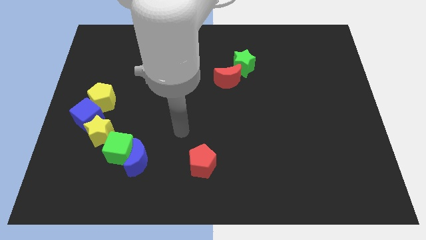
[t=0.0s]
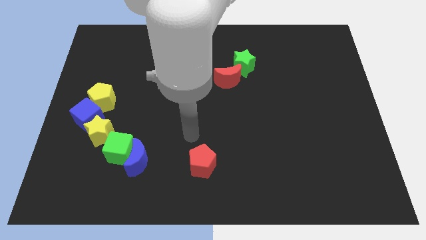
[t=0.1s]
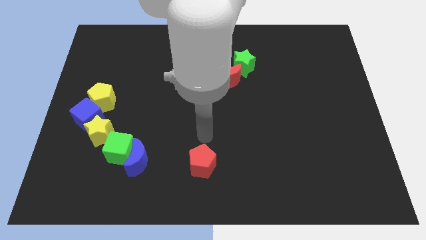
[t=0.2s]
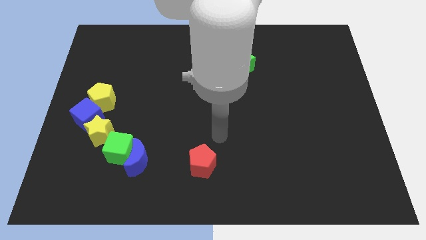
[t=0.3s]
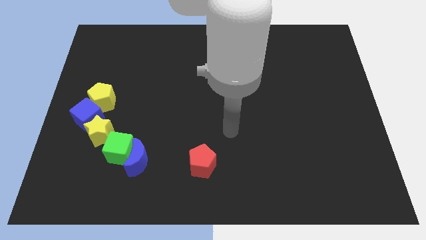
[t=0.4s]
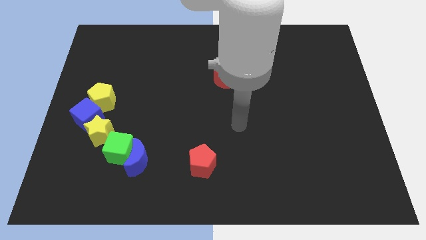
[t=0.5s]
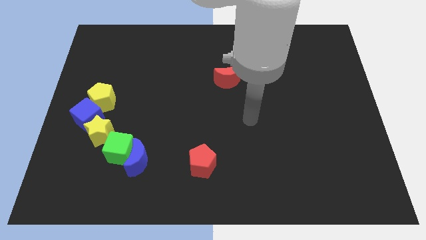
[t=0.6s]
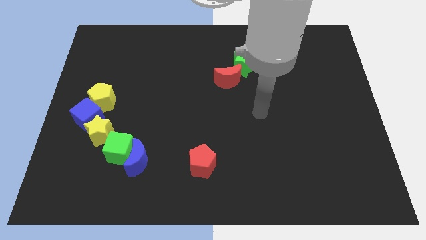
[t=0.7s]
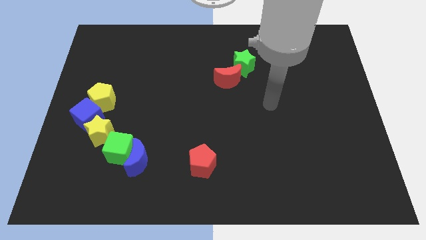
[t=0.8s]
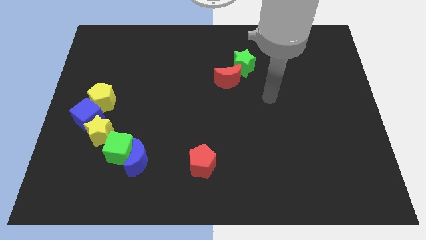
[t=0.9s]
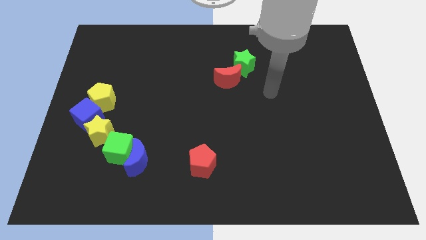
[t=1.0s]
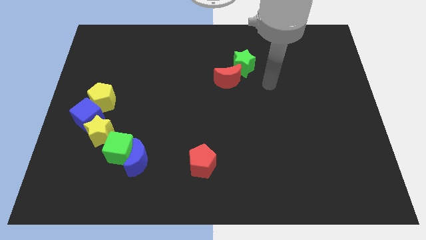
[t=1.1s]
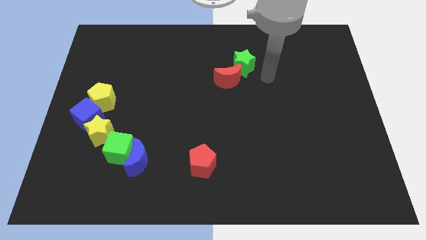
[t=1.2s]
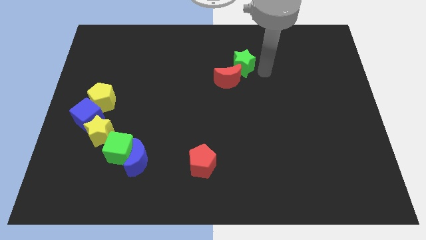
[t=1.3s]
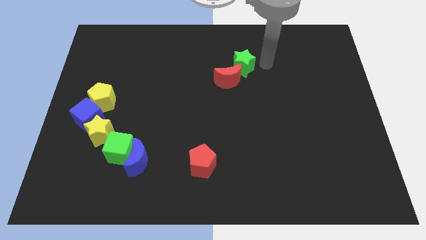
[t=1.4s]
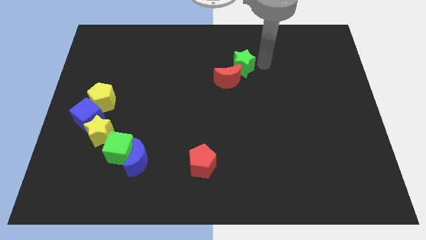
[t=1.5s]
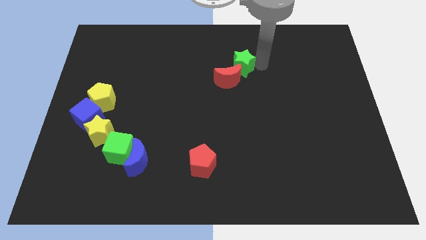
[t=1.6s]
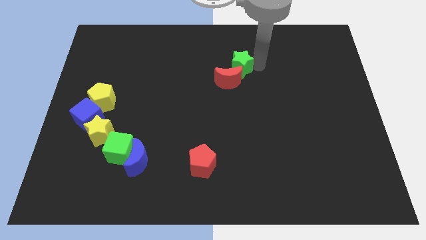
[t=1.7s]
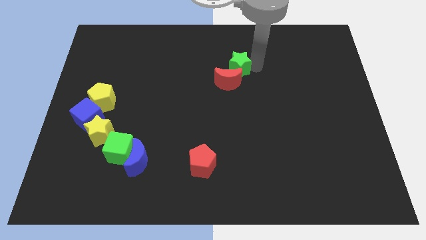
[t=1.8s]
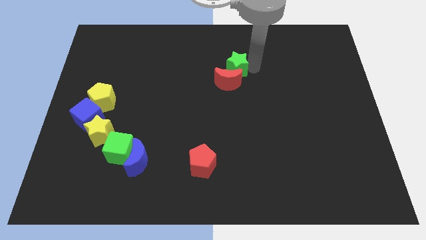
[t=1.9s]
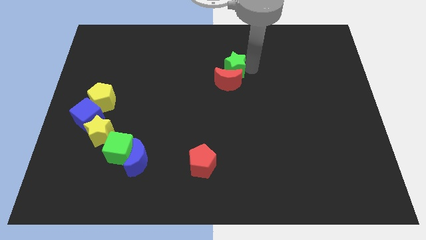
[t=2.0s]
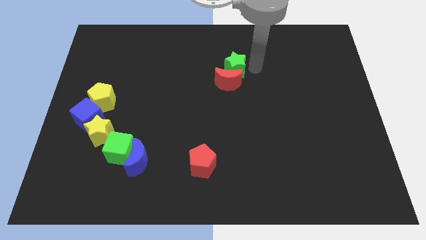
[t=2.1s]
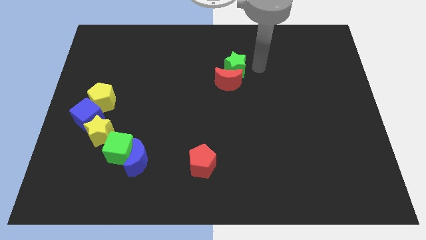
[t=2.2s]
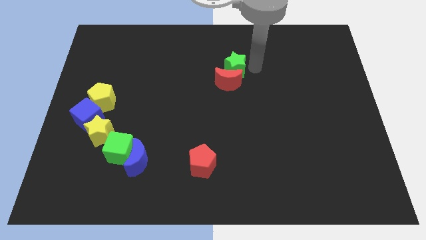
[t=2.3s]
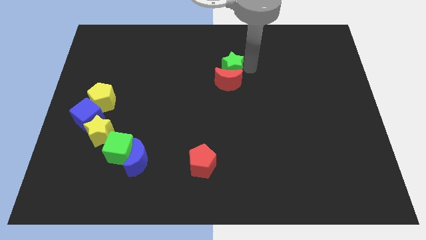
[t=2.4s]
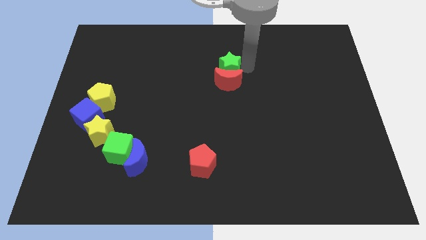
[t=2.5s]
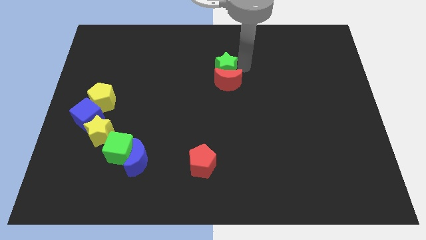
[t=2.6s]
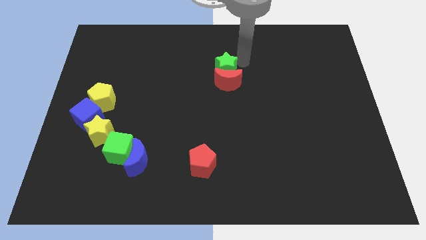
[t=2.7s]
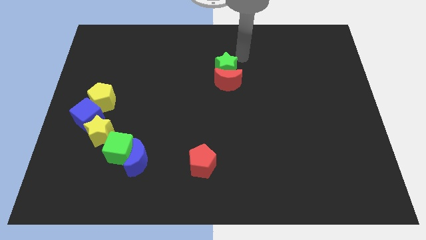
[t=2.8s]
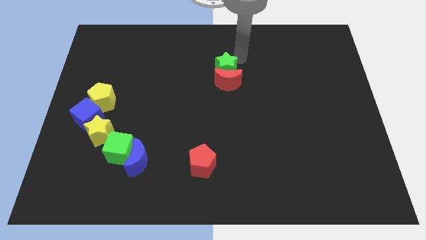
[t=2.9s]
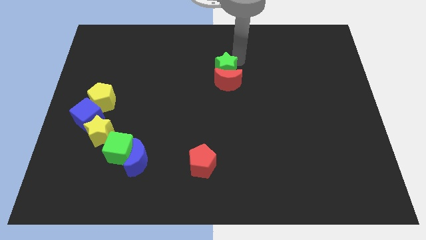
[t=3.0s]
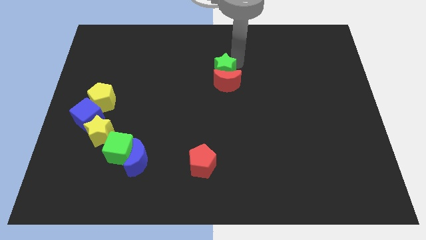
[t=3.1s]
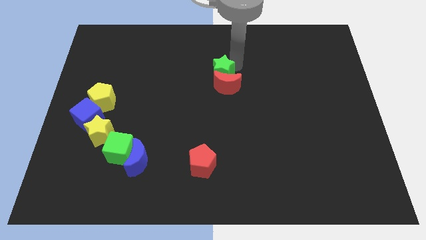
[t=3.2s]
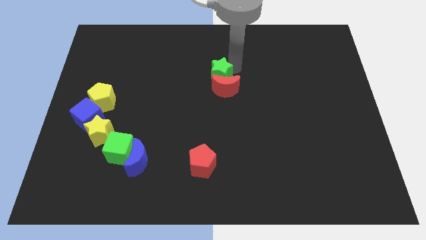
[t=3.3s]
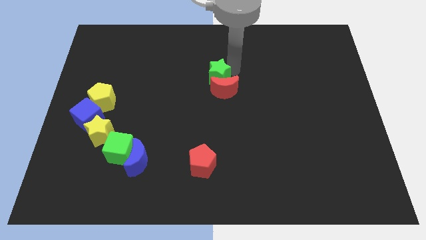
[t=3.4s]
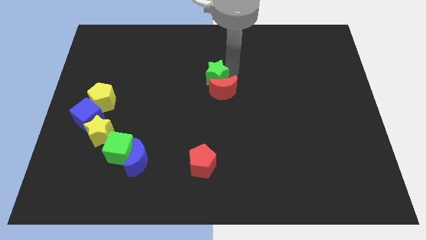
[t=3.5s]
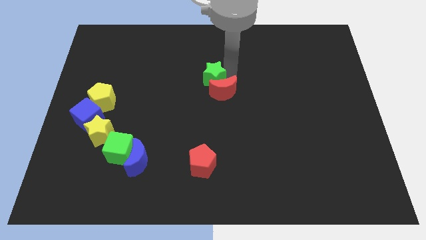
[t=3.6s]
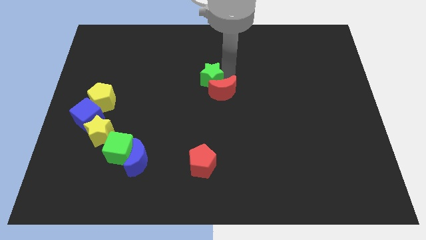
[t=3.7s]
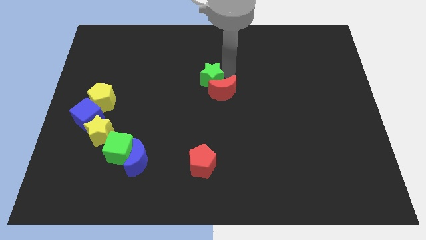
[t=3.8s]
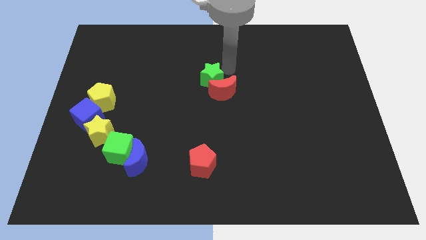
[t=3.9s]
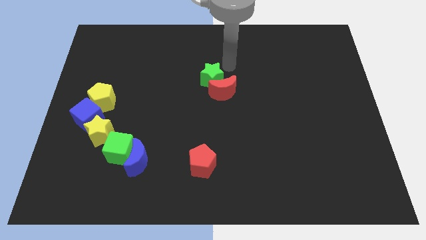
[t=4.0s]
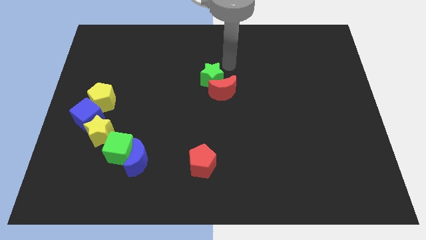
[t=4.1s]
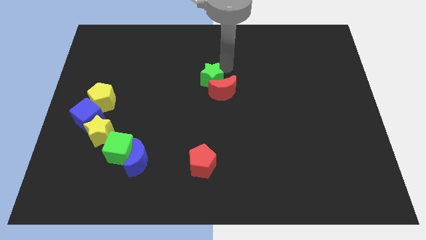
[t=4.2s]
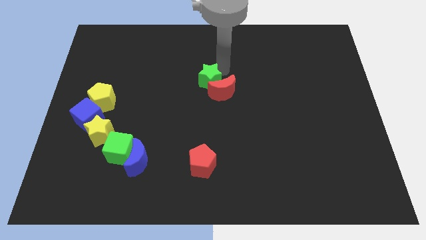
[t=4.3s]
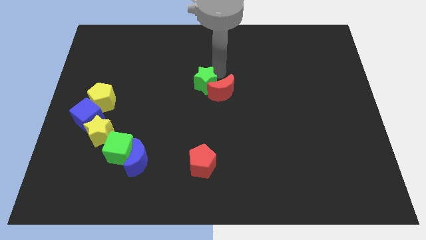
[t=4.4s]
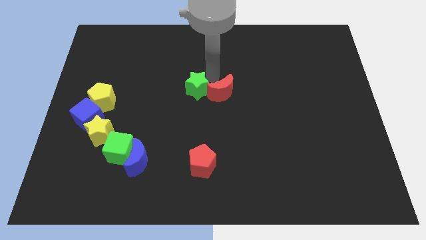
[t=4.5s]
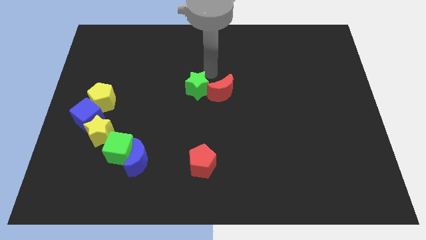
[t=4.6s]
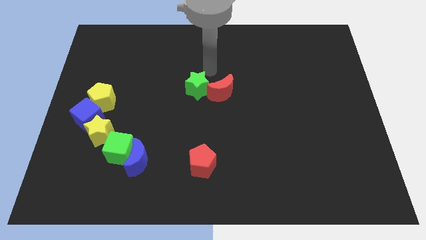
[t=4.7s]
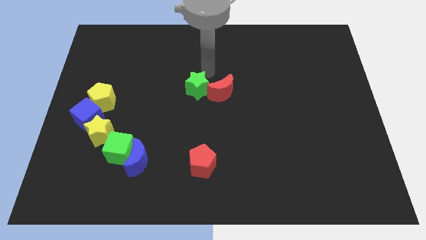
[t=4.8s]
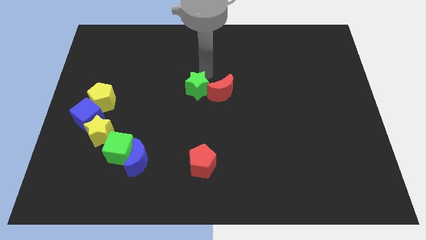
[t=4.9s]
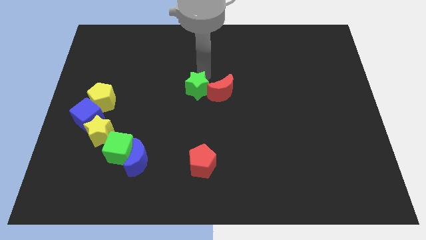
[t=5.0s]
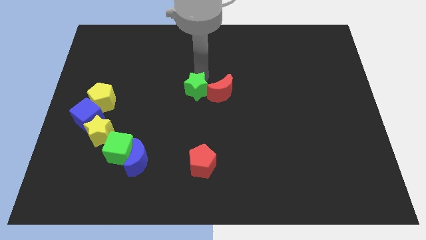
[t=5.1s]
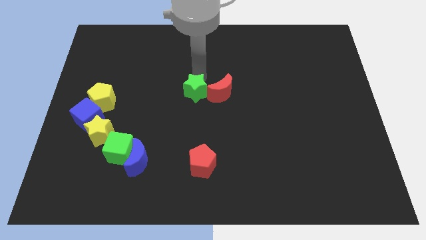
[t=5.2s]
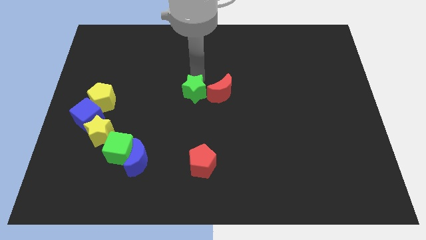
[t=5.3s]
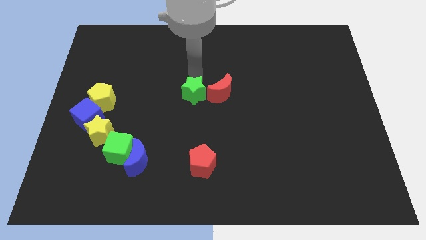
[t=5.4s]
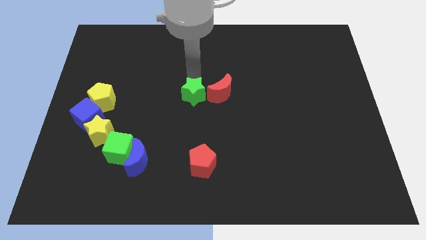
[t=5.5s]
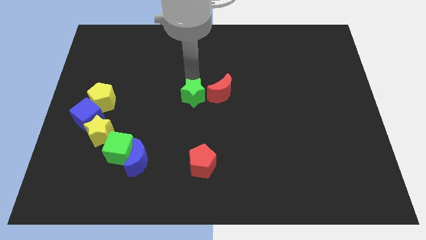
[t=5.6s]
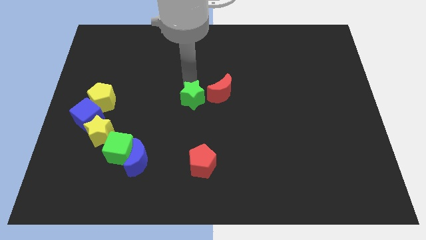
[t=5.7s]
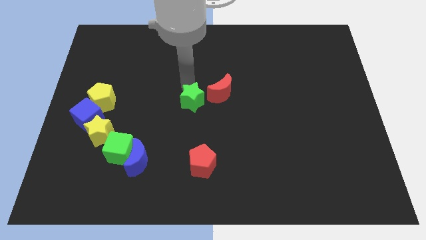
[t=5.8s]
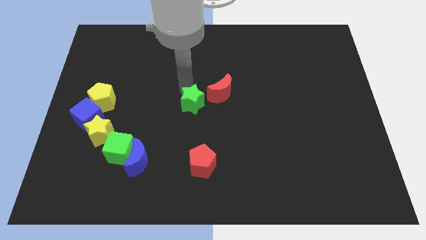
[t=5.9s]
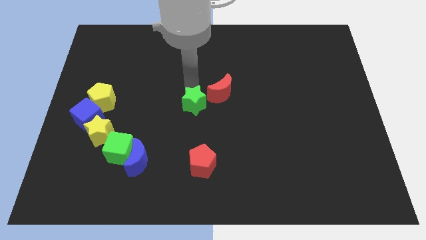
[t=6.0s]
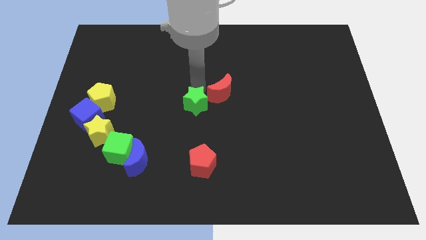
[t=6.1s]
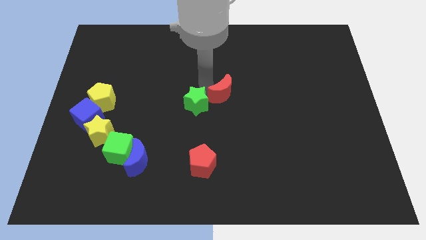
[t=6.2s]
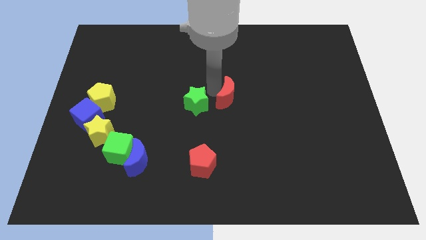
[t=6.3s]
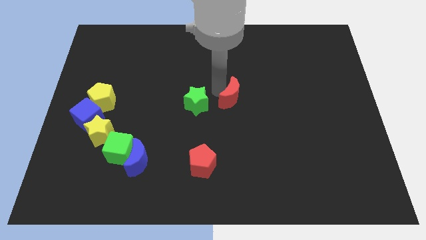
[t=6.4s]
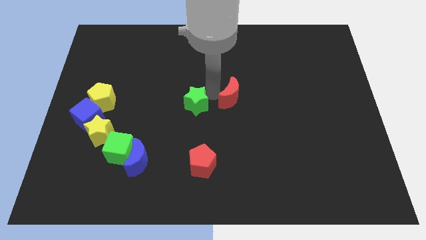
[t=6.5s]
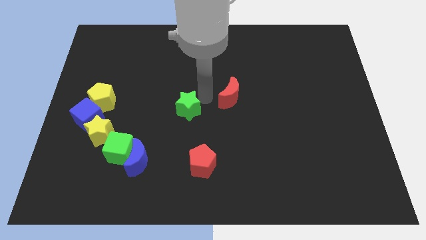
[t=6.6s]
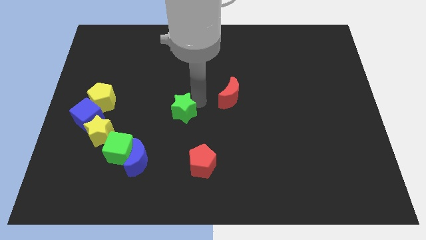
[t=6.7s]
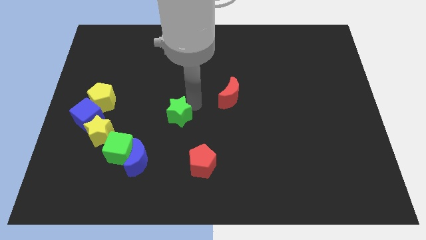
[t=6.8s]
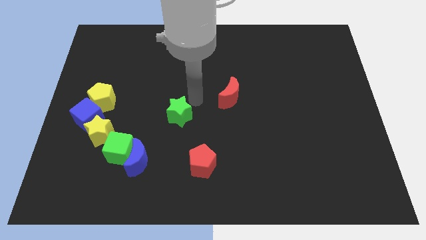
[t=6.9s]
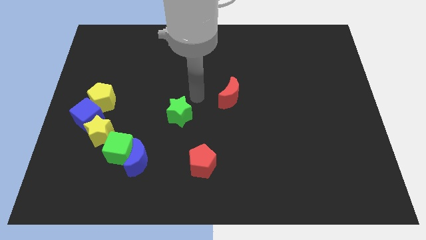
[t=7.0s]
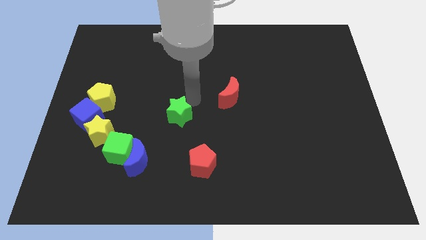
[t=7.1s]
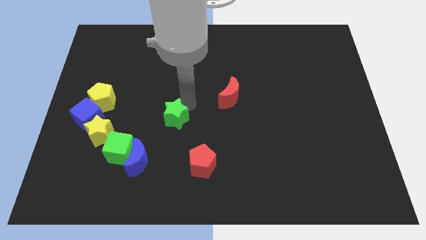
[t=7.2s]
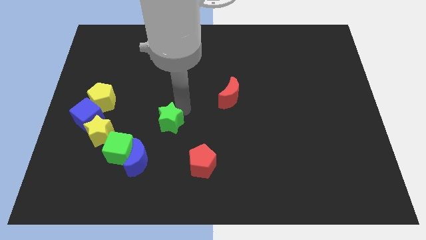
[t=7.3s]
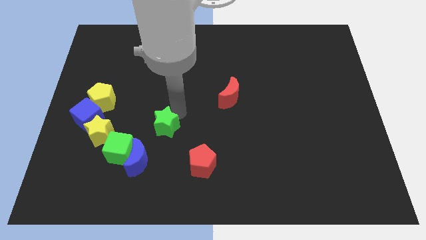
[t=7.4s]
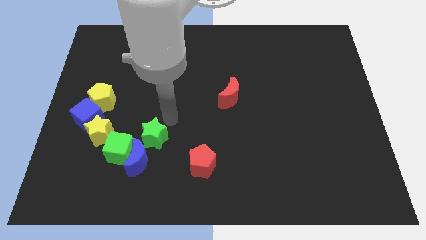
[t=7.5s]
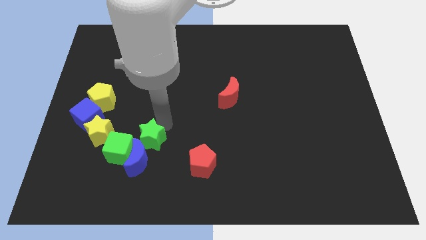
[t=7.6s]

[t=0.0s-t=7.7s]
slide the green star to the blue moon
